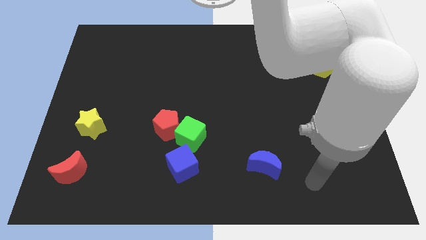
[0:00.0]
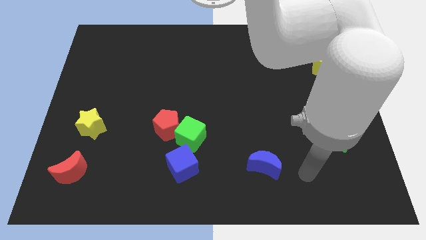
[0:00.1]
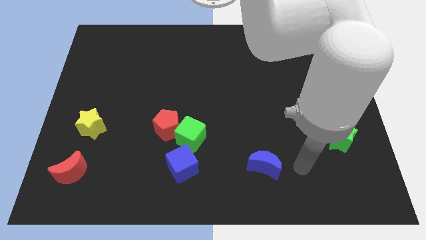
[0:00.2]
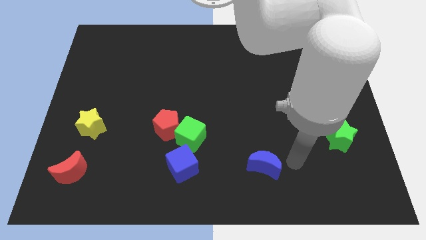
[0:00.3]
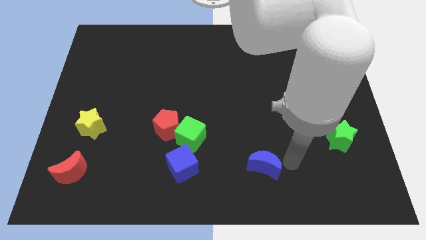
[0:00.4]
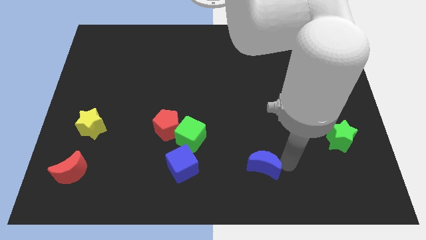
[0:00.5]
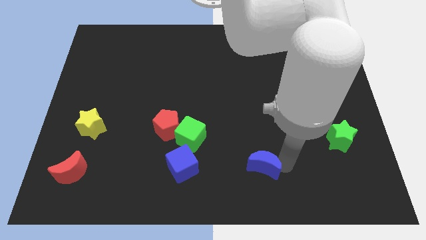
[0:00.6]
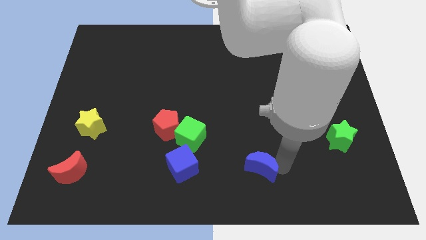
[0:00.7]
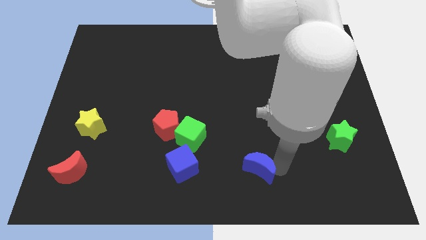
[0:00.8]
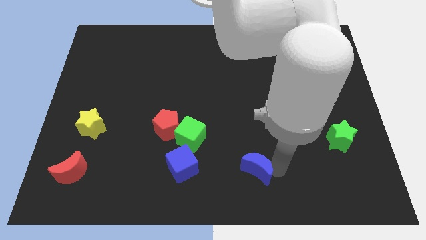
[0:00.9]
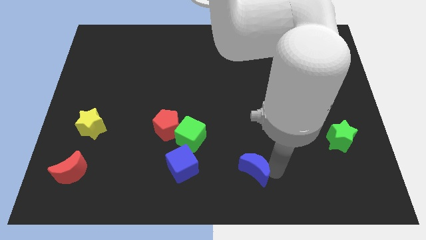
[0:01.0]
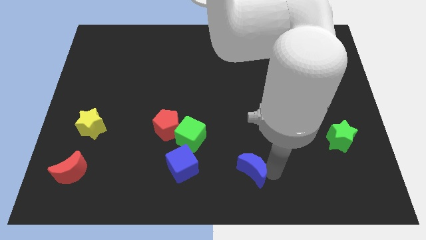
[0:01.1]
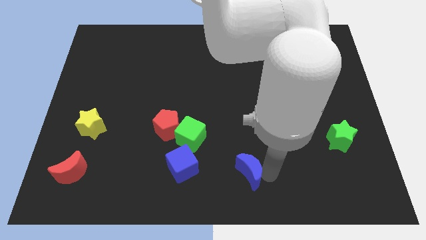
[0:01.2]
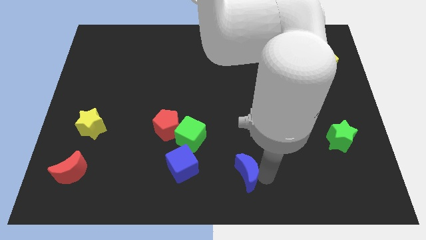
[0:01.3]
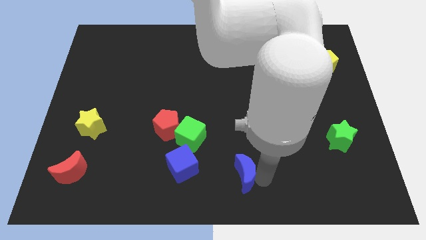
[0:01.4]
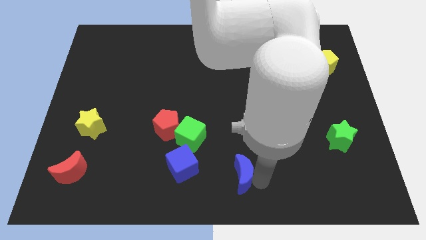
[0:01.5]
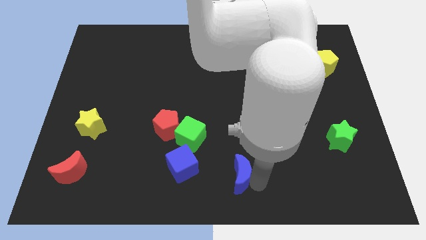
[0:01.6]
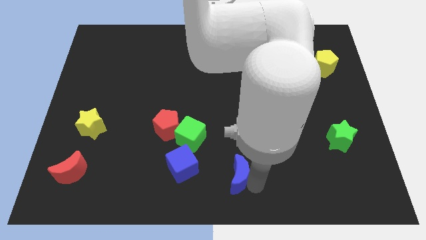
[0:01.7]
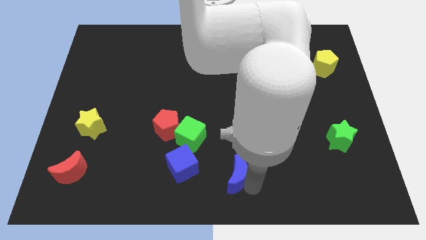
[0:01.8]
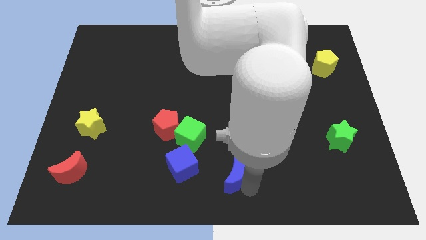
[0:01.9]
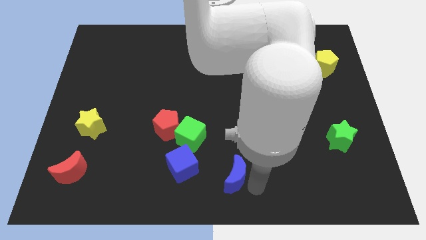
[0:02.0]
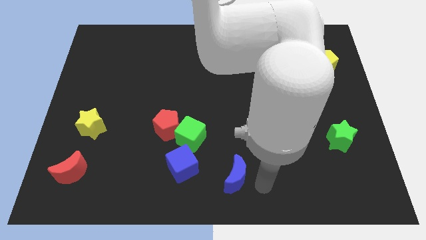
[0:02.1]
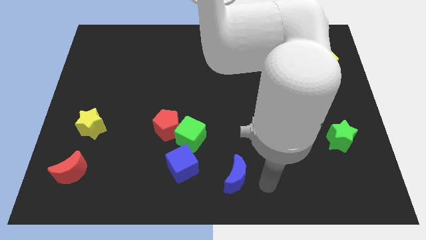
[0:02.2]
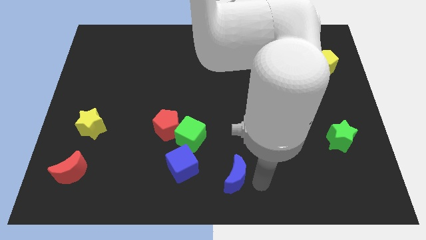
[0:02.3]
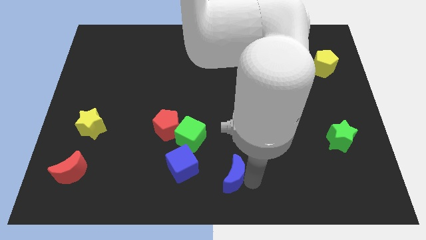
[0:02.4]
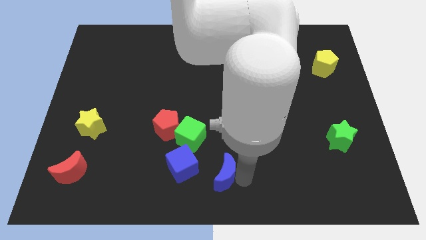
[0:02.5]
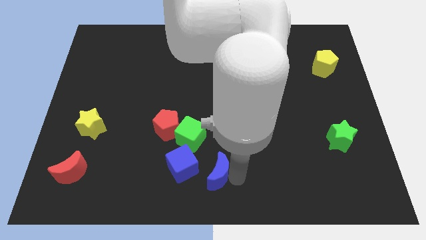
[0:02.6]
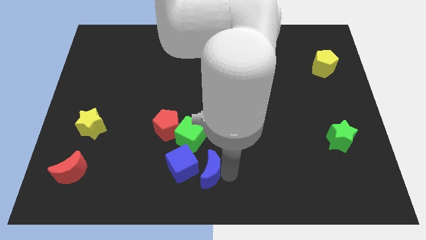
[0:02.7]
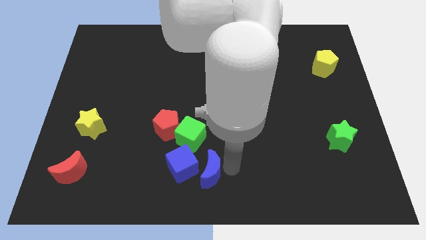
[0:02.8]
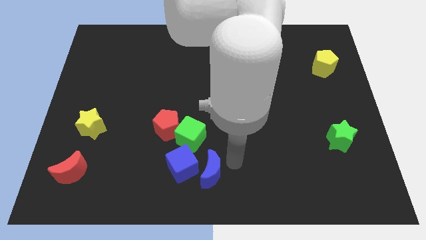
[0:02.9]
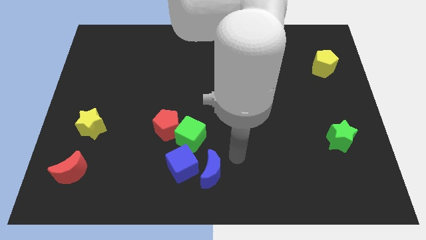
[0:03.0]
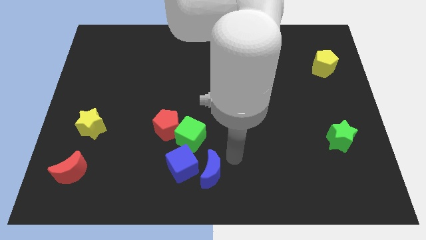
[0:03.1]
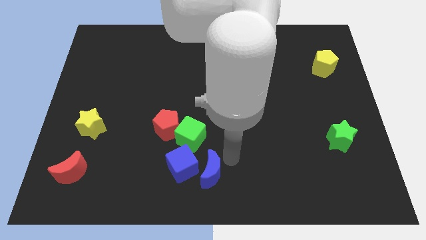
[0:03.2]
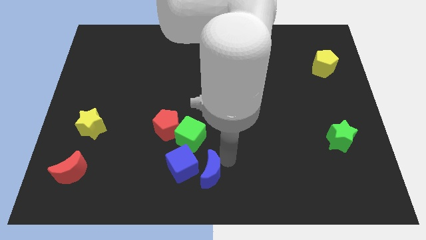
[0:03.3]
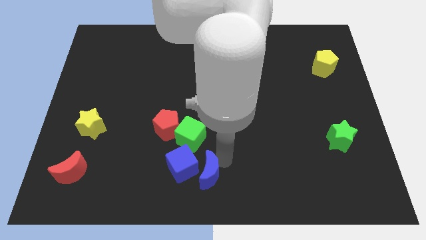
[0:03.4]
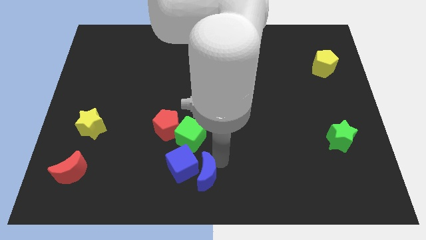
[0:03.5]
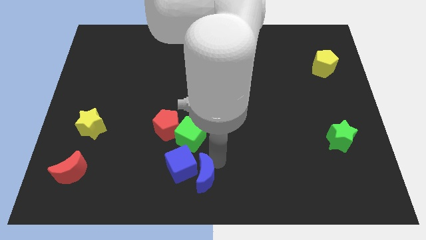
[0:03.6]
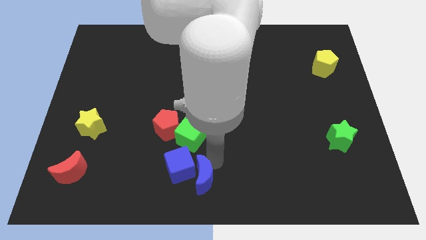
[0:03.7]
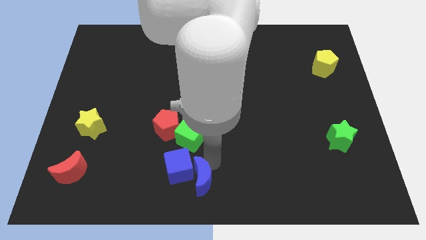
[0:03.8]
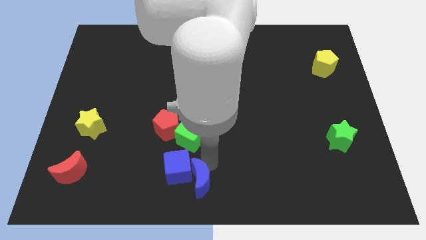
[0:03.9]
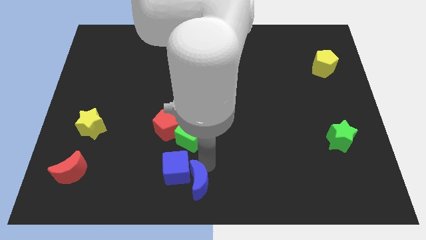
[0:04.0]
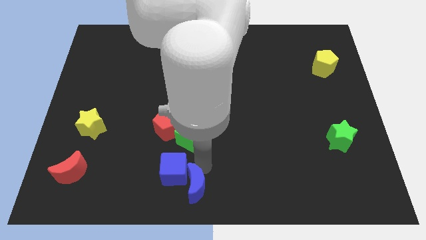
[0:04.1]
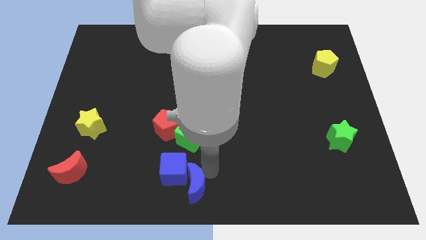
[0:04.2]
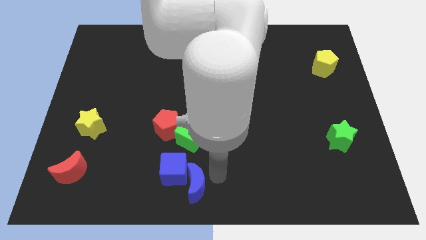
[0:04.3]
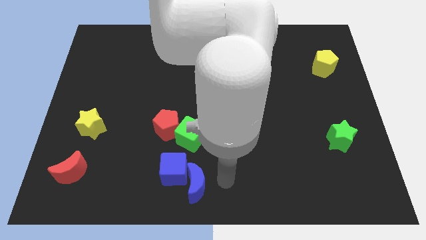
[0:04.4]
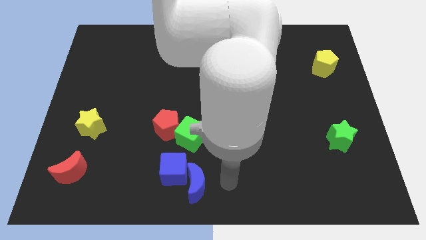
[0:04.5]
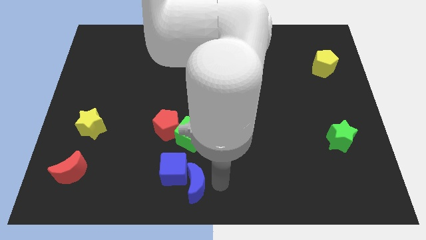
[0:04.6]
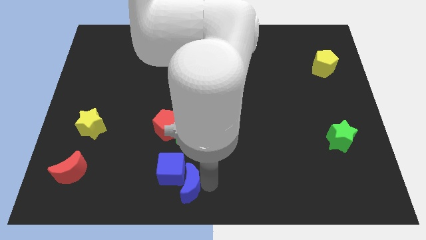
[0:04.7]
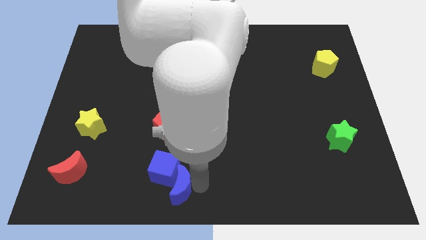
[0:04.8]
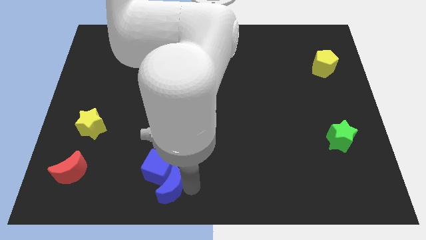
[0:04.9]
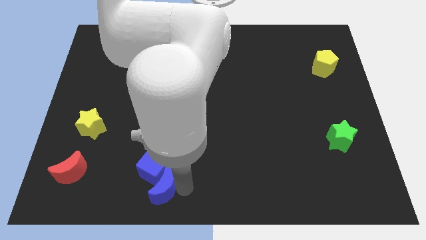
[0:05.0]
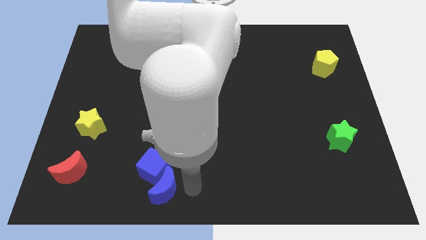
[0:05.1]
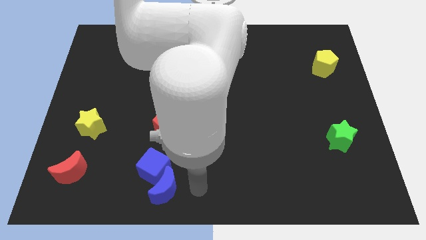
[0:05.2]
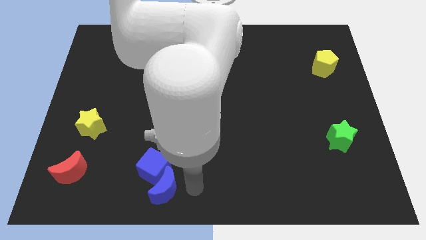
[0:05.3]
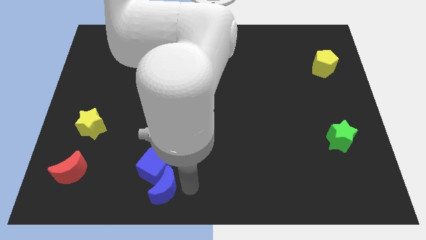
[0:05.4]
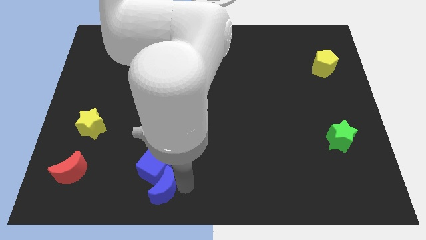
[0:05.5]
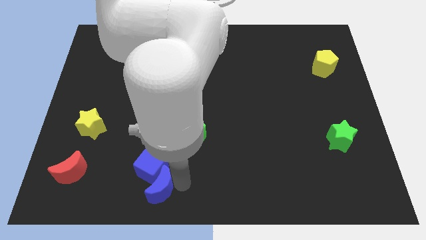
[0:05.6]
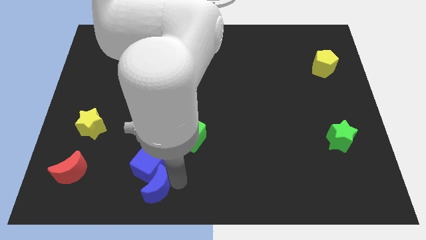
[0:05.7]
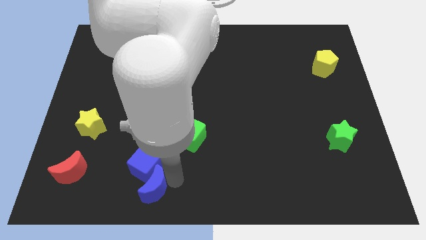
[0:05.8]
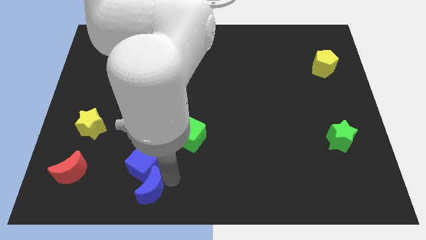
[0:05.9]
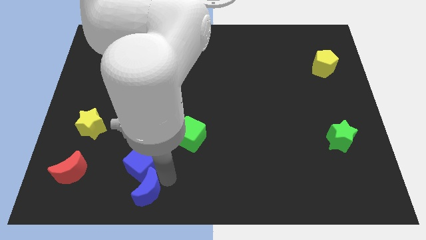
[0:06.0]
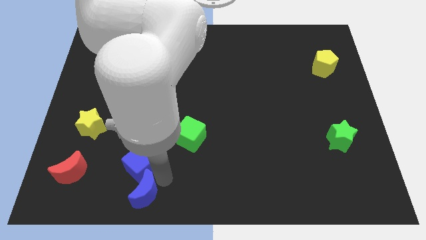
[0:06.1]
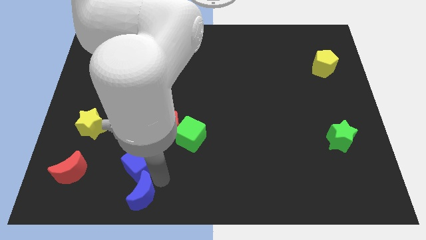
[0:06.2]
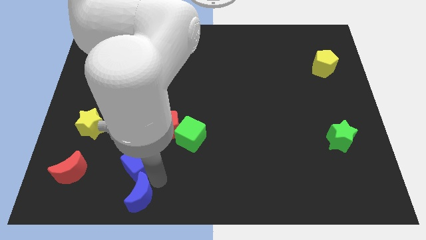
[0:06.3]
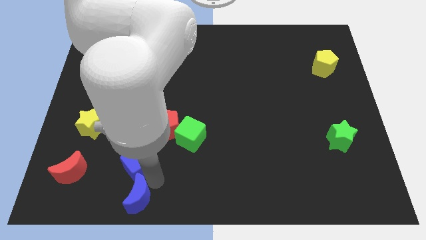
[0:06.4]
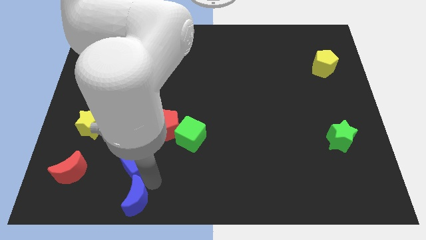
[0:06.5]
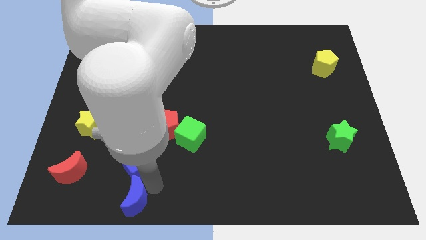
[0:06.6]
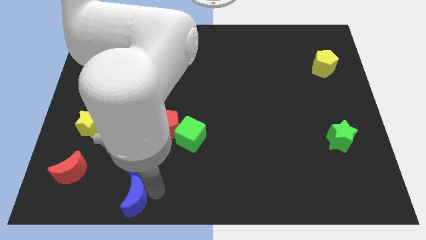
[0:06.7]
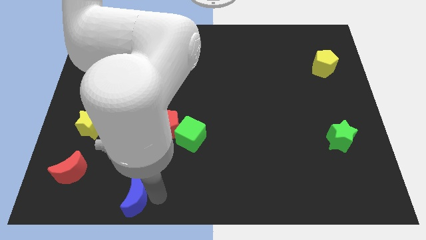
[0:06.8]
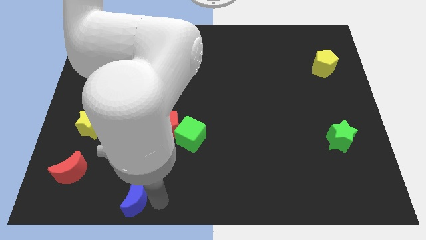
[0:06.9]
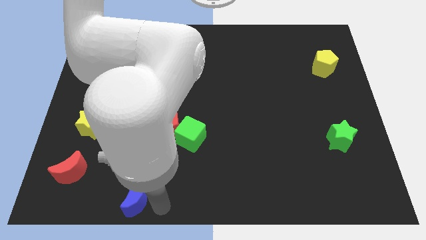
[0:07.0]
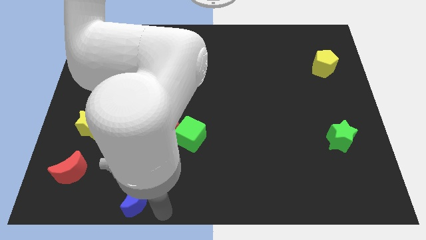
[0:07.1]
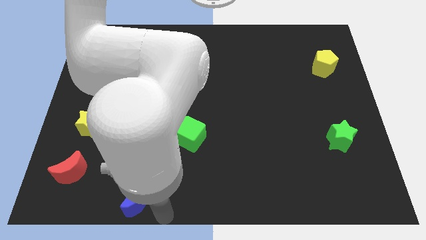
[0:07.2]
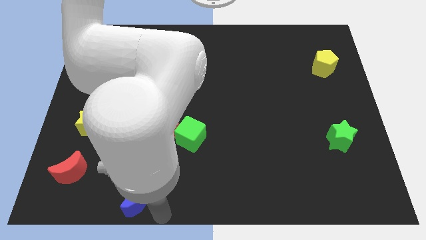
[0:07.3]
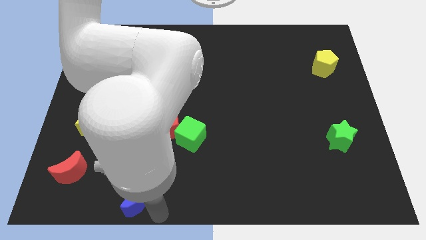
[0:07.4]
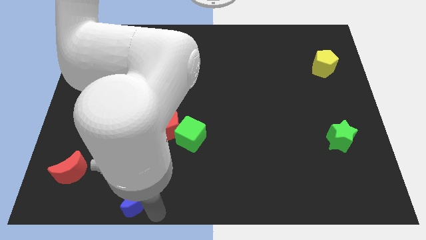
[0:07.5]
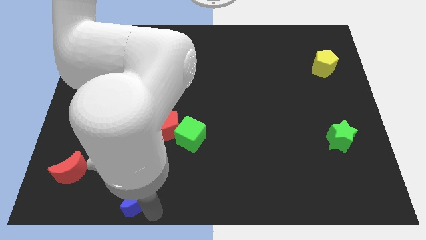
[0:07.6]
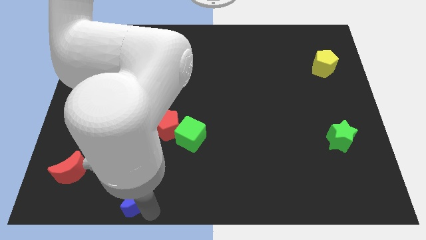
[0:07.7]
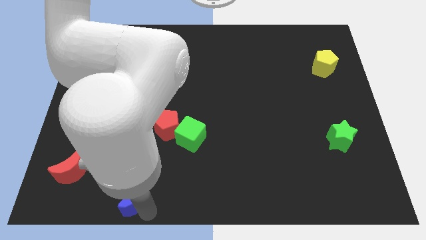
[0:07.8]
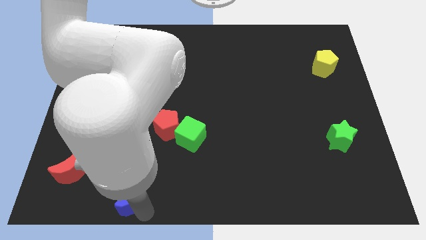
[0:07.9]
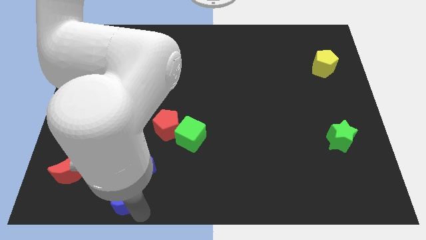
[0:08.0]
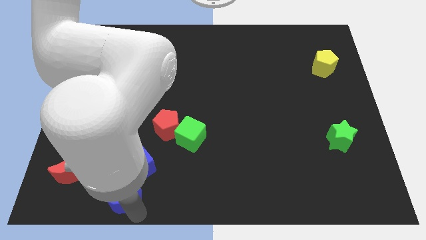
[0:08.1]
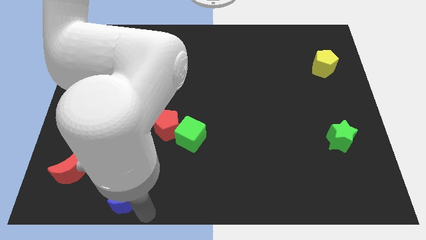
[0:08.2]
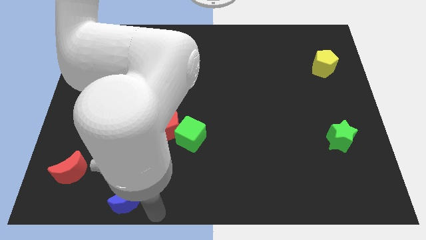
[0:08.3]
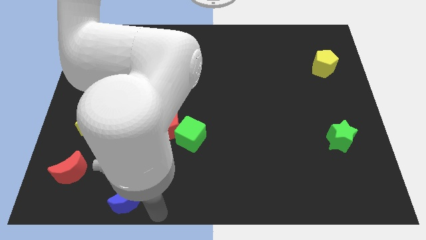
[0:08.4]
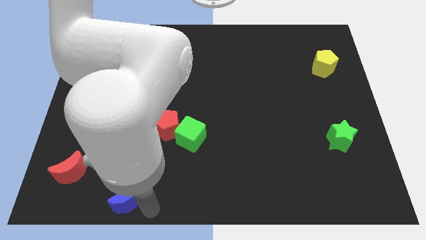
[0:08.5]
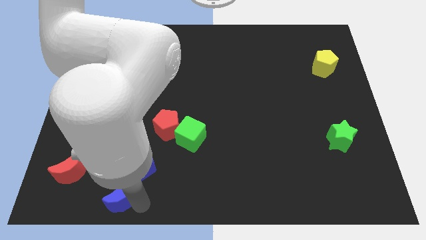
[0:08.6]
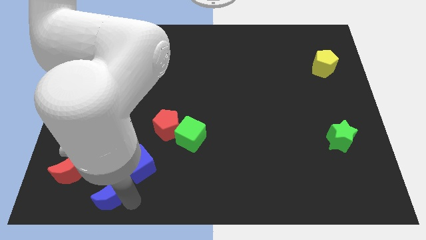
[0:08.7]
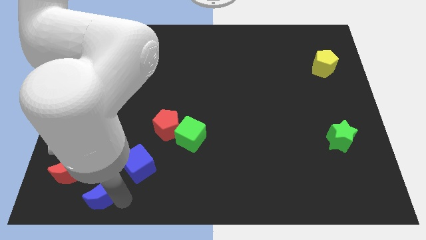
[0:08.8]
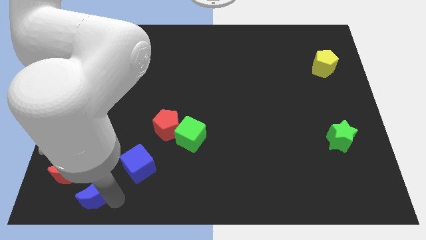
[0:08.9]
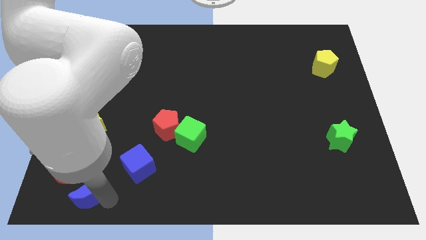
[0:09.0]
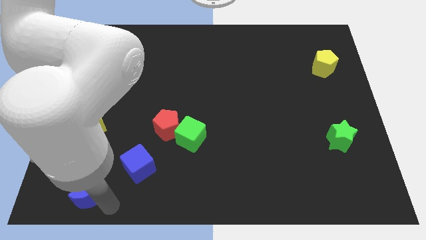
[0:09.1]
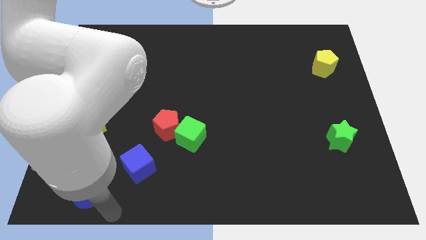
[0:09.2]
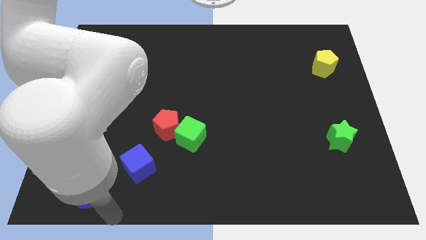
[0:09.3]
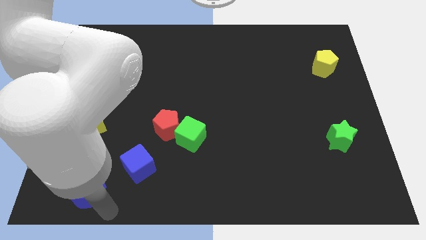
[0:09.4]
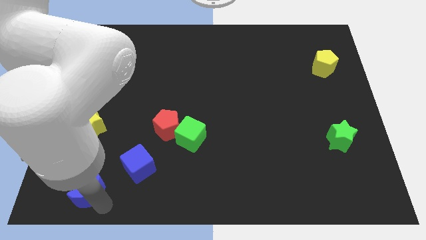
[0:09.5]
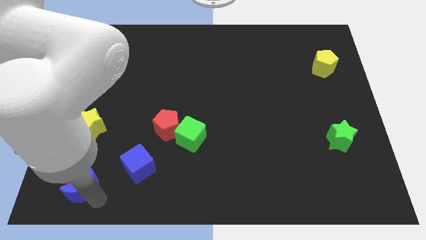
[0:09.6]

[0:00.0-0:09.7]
put the blue moon to the red moon
